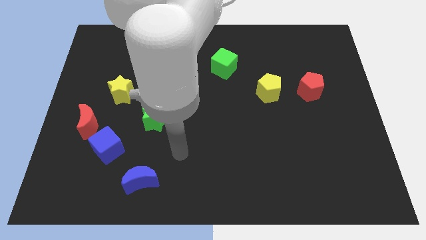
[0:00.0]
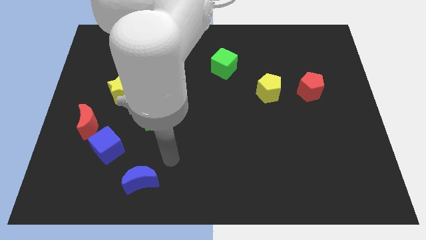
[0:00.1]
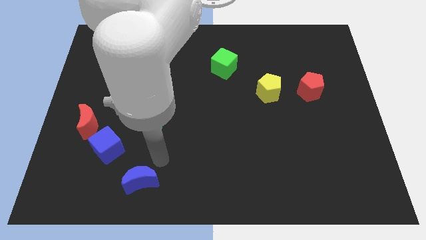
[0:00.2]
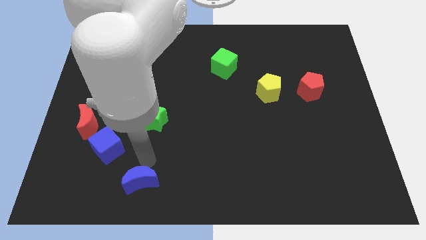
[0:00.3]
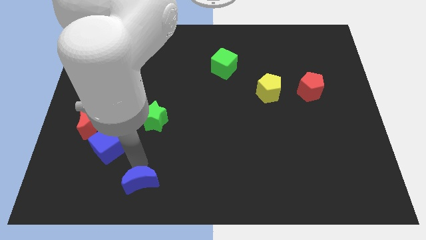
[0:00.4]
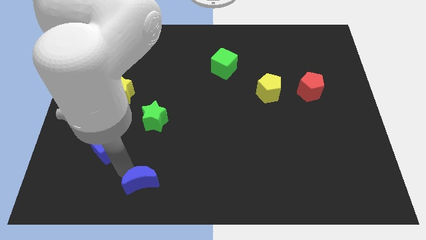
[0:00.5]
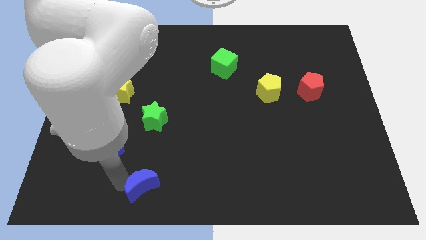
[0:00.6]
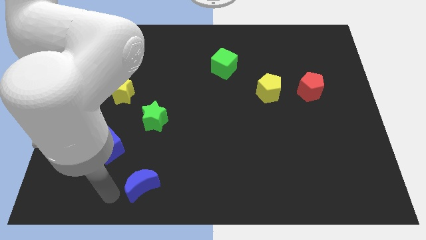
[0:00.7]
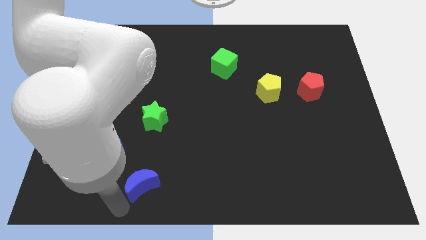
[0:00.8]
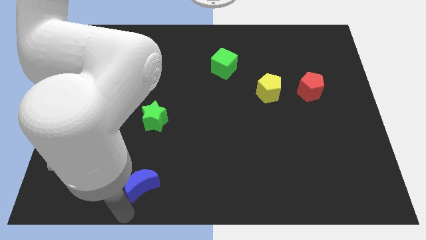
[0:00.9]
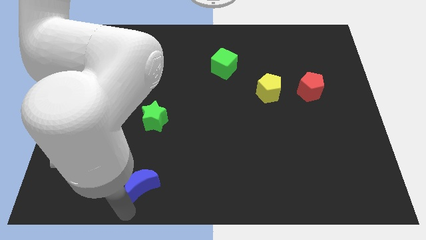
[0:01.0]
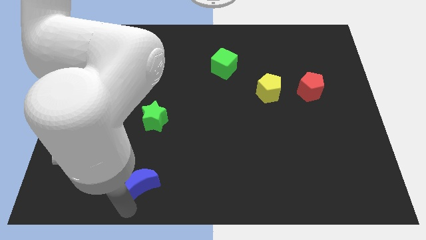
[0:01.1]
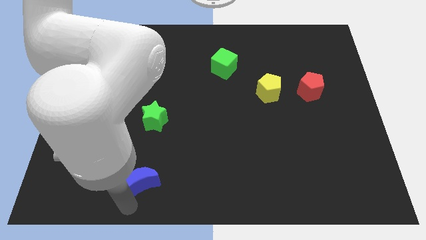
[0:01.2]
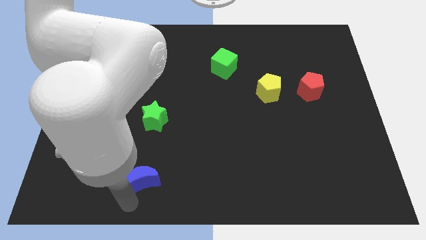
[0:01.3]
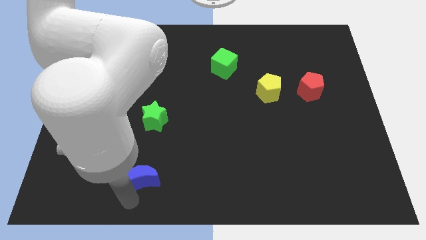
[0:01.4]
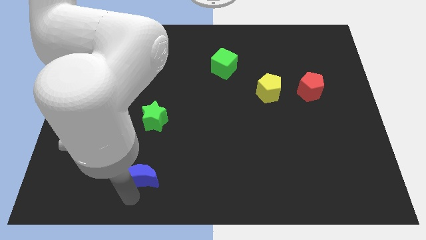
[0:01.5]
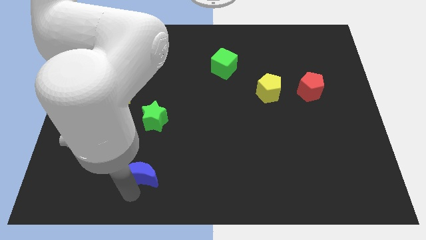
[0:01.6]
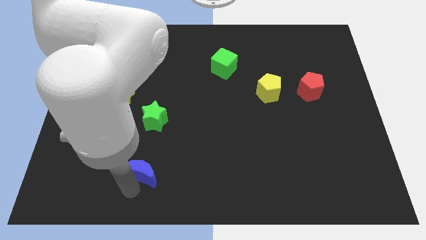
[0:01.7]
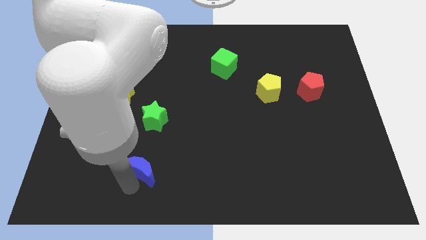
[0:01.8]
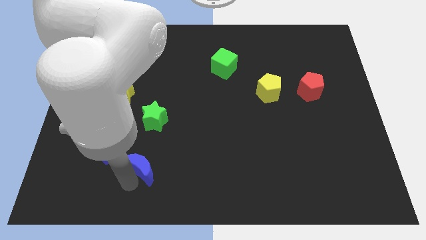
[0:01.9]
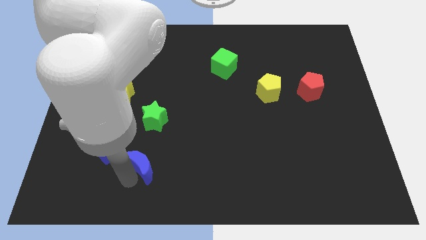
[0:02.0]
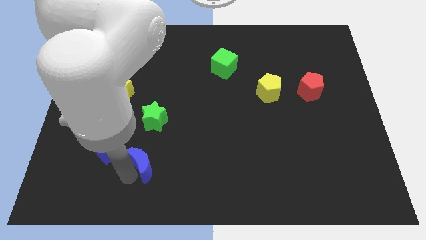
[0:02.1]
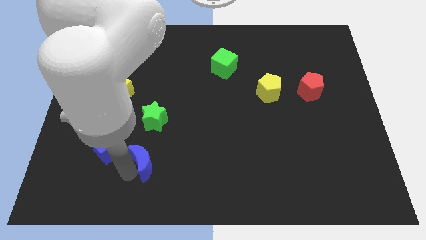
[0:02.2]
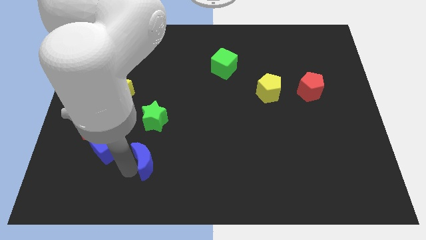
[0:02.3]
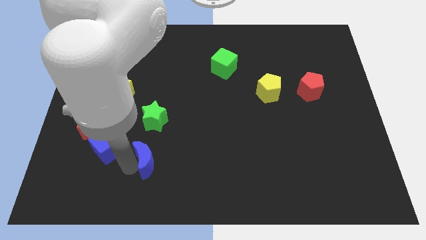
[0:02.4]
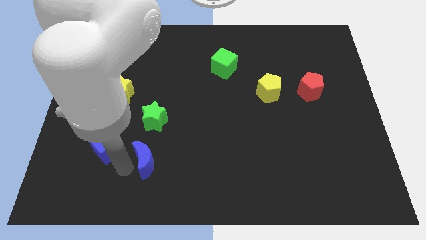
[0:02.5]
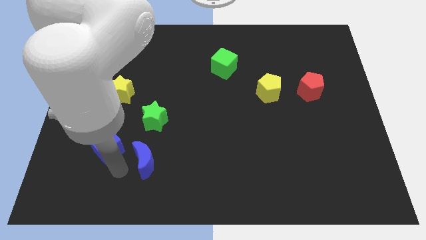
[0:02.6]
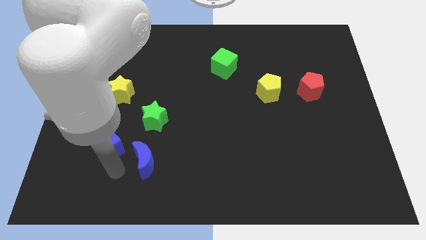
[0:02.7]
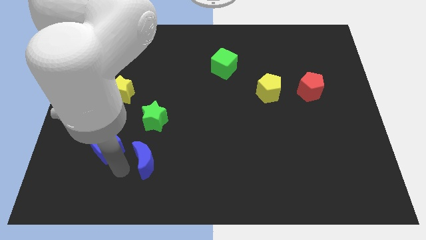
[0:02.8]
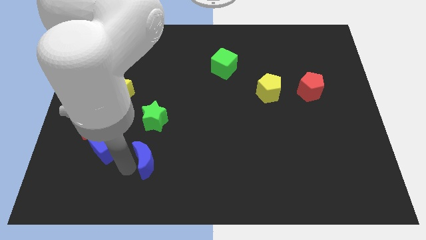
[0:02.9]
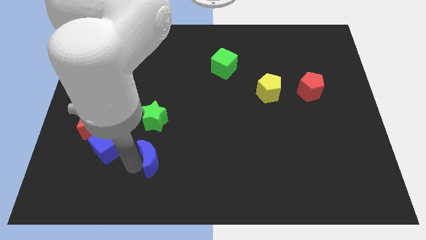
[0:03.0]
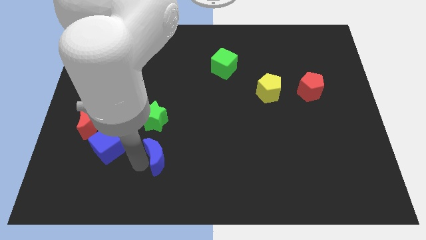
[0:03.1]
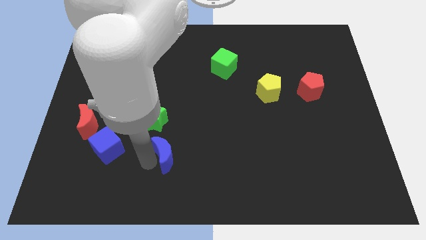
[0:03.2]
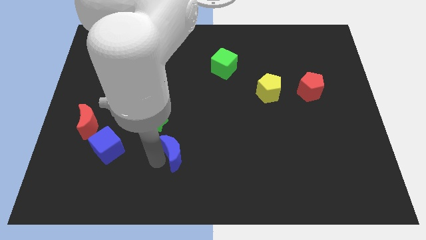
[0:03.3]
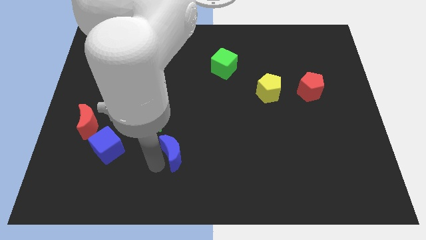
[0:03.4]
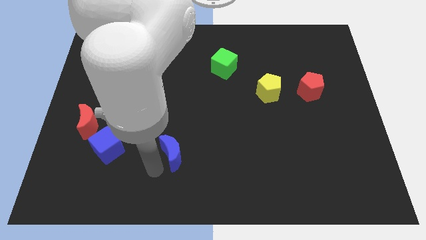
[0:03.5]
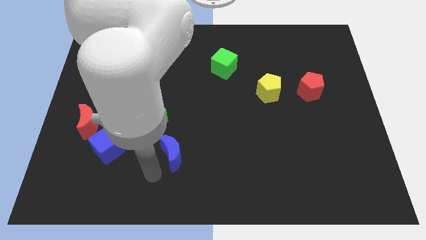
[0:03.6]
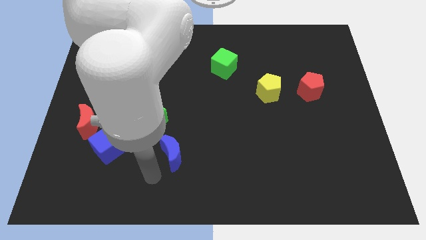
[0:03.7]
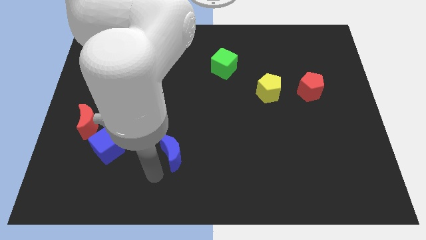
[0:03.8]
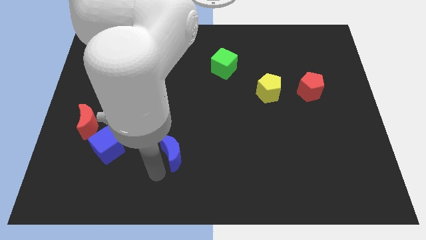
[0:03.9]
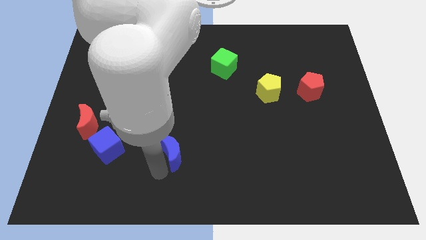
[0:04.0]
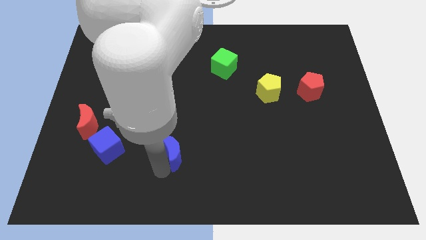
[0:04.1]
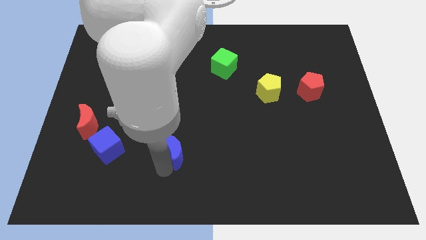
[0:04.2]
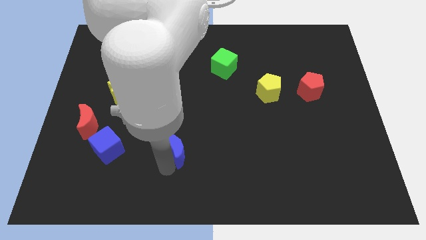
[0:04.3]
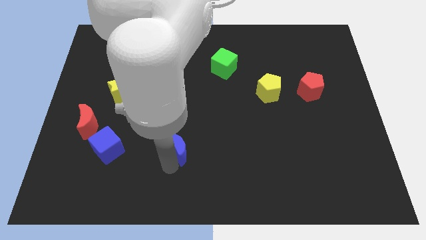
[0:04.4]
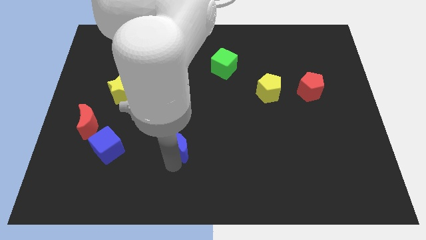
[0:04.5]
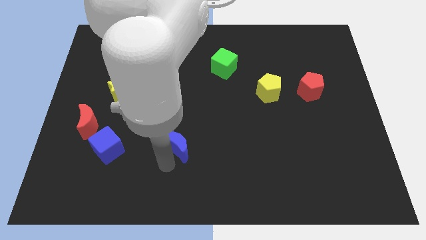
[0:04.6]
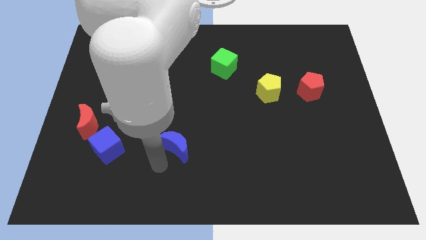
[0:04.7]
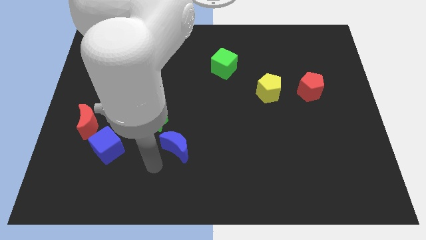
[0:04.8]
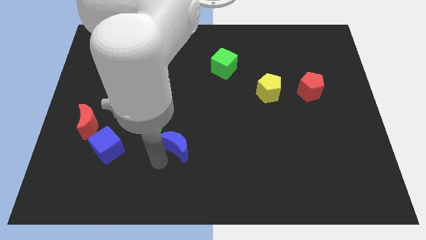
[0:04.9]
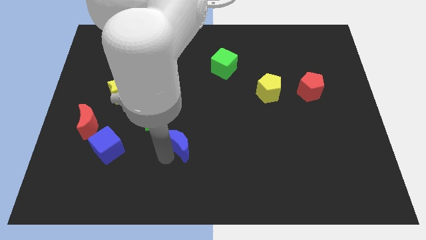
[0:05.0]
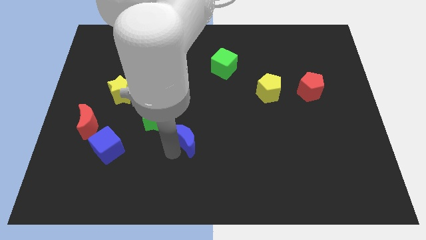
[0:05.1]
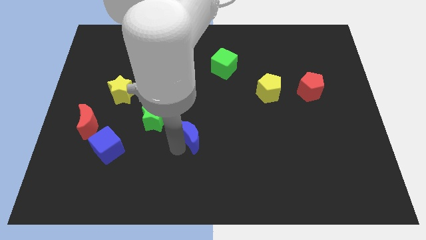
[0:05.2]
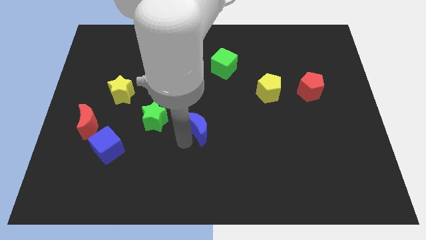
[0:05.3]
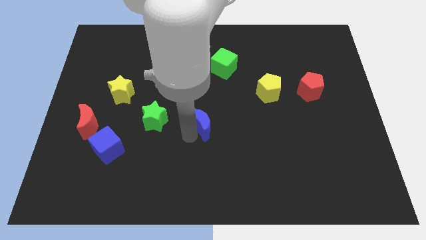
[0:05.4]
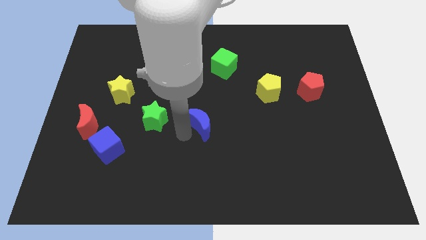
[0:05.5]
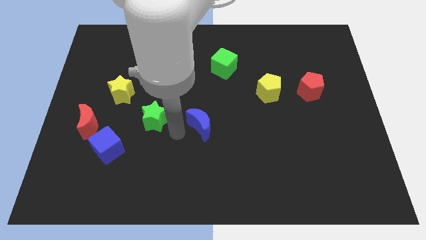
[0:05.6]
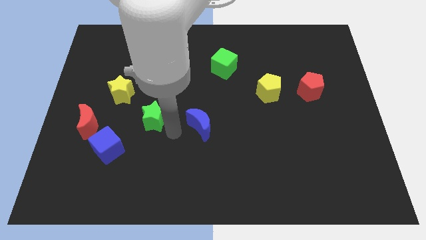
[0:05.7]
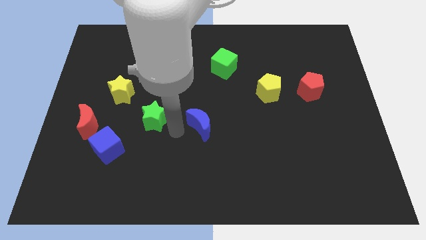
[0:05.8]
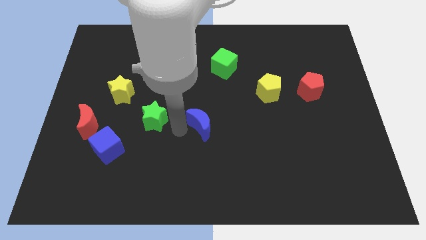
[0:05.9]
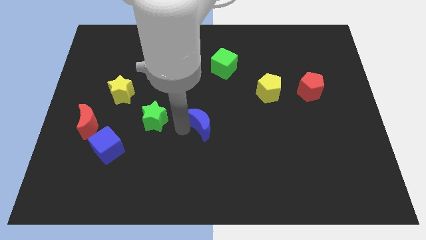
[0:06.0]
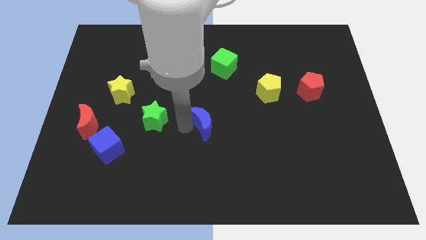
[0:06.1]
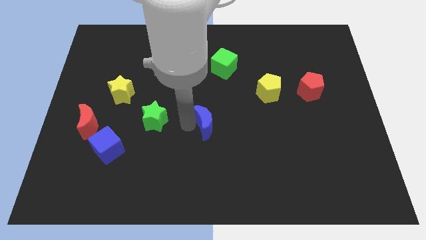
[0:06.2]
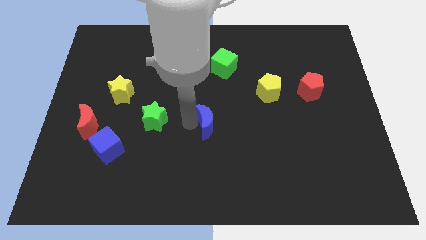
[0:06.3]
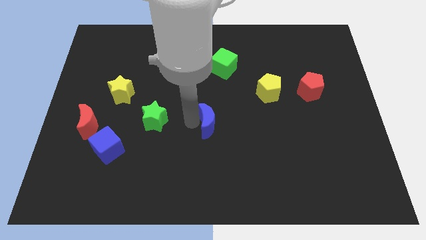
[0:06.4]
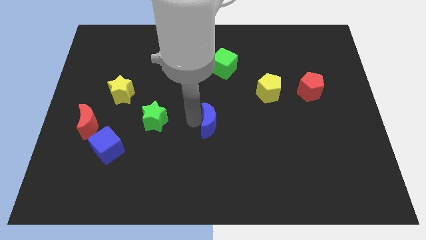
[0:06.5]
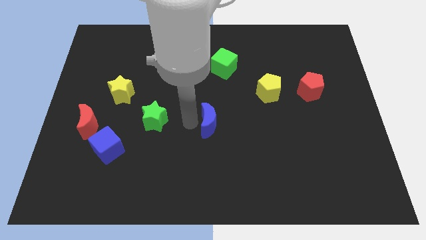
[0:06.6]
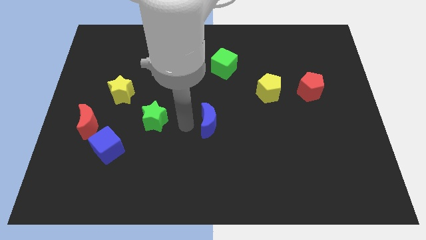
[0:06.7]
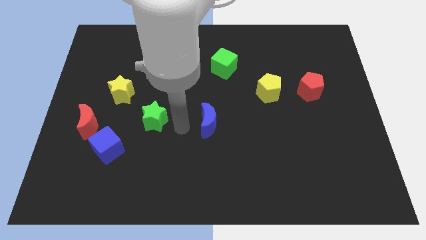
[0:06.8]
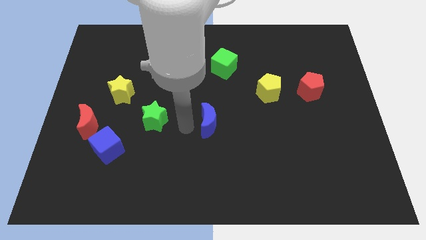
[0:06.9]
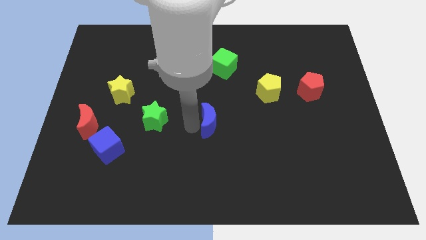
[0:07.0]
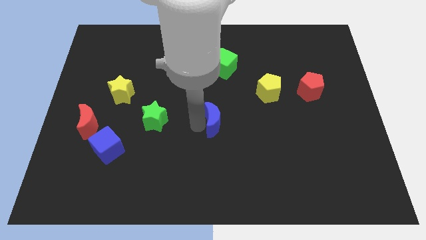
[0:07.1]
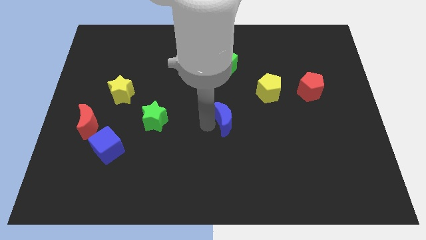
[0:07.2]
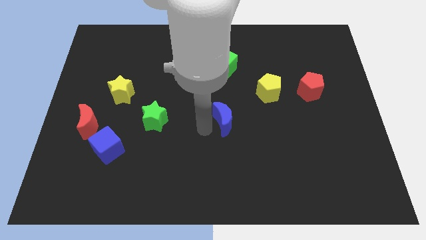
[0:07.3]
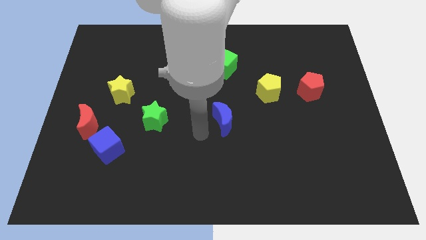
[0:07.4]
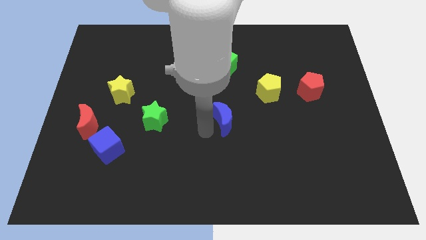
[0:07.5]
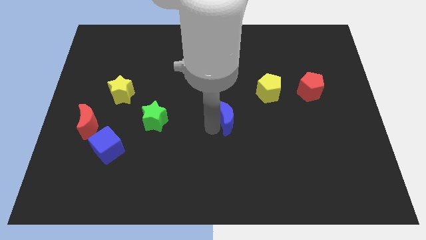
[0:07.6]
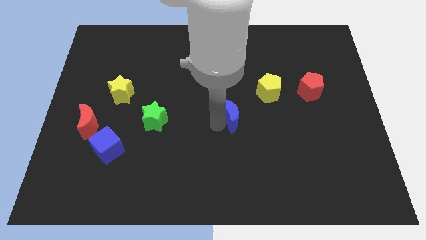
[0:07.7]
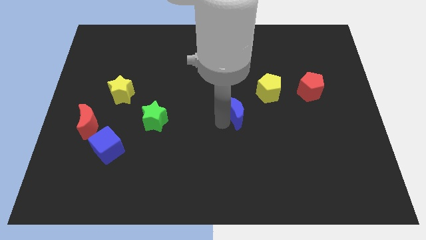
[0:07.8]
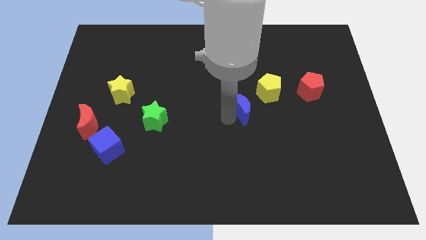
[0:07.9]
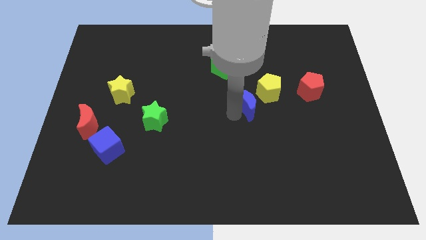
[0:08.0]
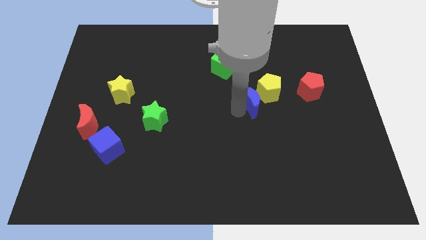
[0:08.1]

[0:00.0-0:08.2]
put the blue moon towards the yellow pentagon
